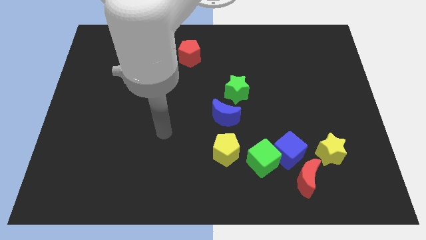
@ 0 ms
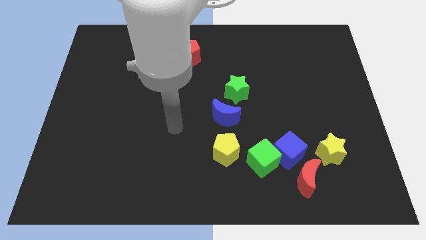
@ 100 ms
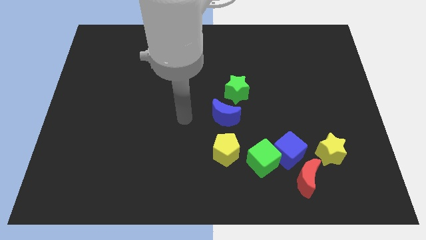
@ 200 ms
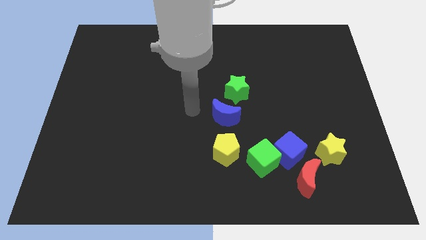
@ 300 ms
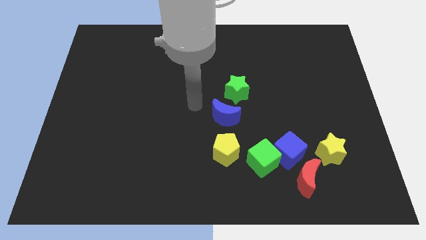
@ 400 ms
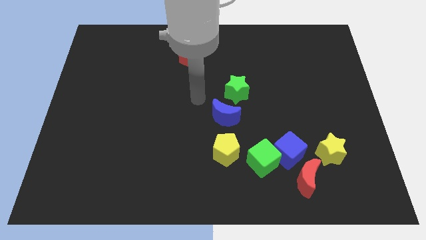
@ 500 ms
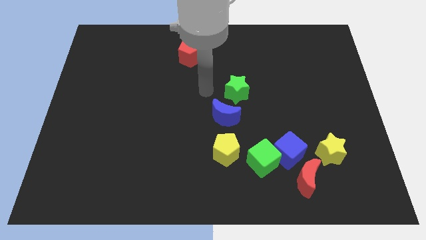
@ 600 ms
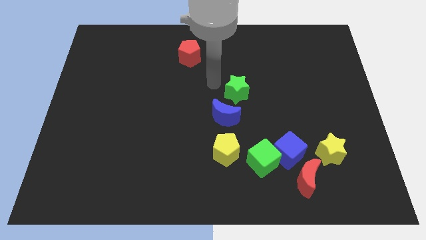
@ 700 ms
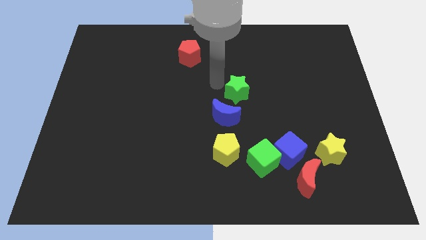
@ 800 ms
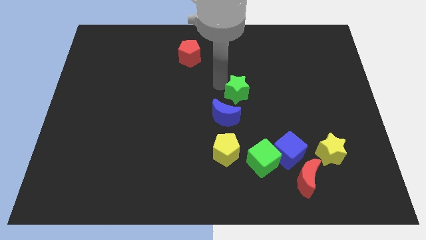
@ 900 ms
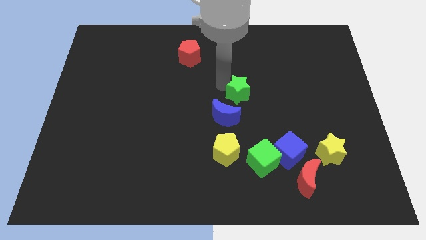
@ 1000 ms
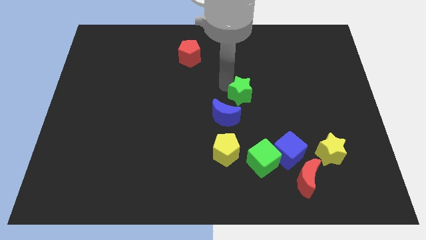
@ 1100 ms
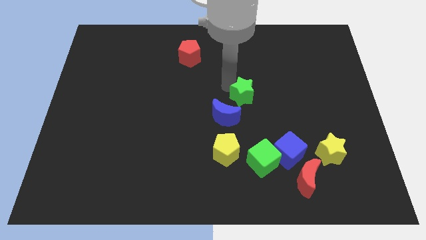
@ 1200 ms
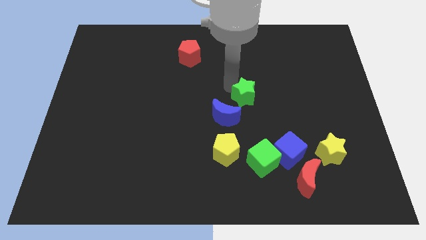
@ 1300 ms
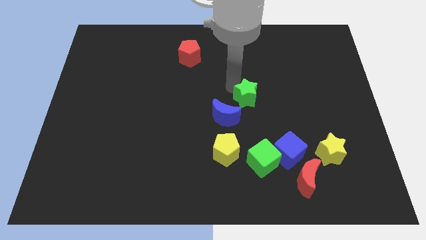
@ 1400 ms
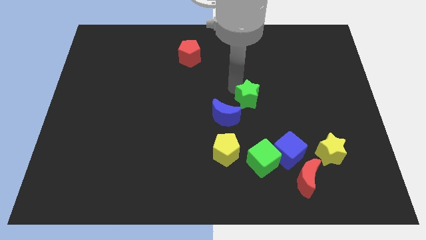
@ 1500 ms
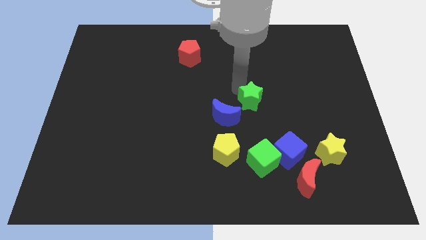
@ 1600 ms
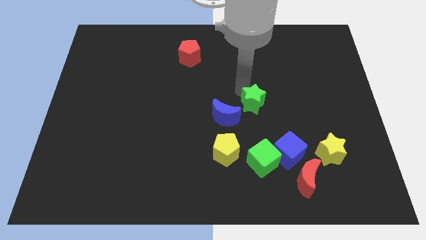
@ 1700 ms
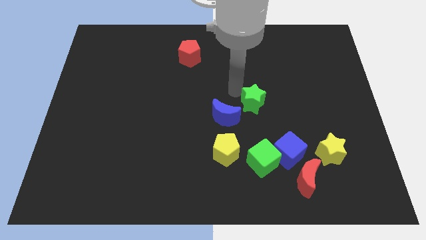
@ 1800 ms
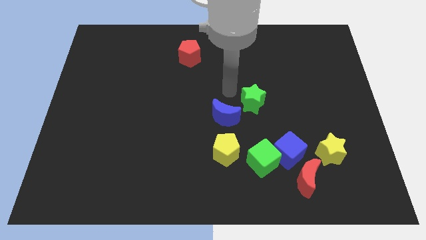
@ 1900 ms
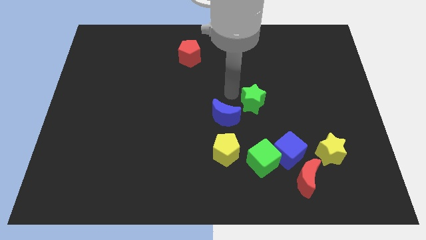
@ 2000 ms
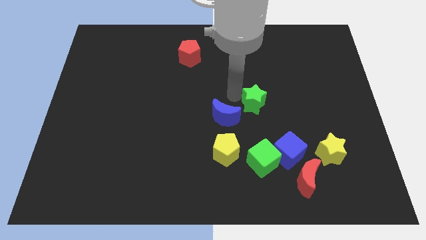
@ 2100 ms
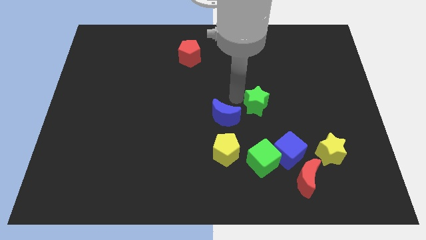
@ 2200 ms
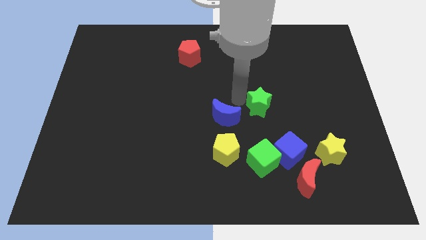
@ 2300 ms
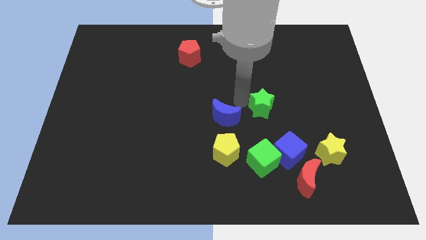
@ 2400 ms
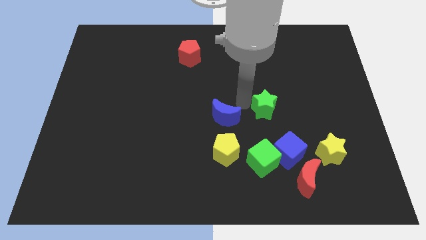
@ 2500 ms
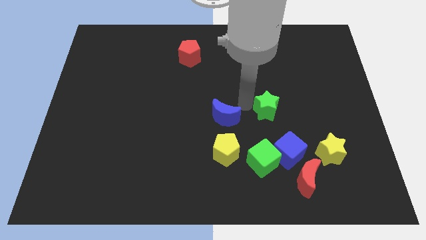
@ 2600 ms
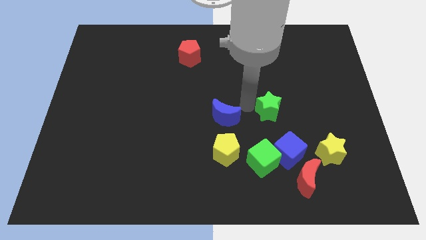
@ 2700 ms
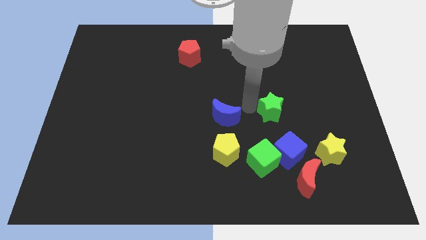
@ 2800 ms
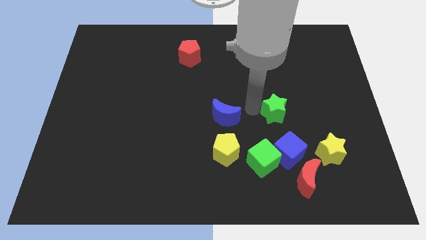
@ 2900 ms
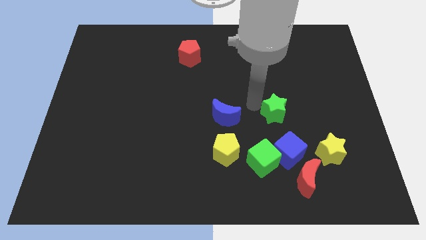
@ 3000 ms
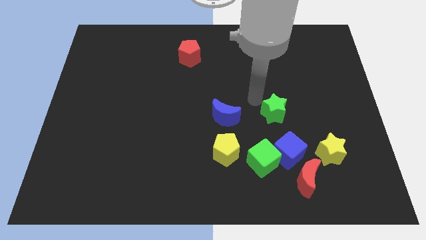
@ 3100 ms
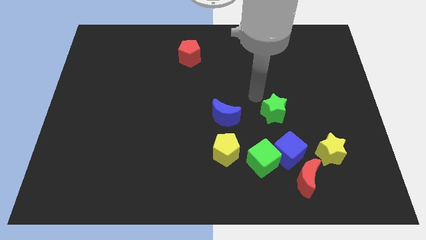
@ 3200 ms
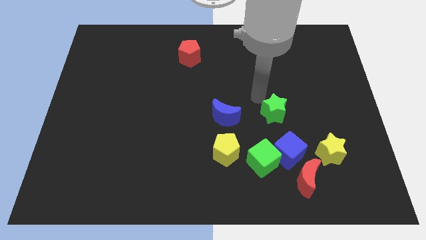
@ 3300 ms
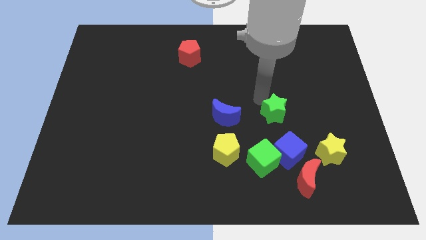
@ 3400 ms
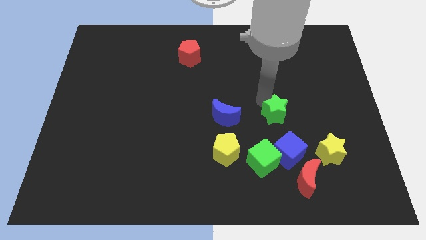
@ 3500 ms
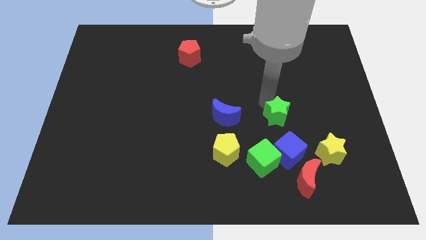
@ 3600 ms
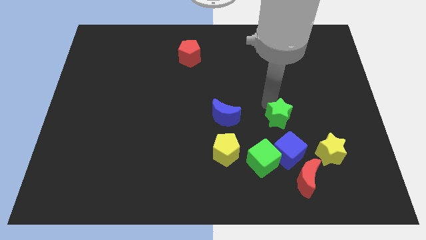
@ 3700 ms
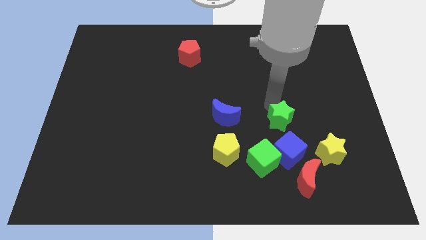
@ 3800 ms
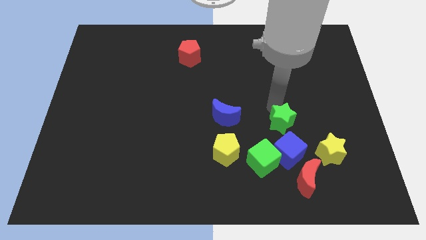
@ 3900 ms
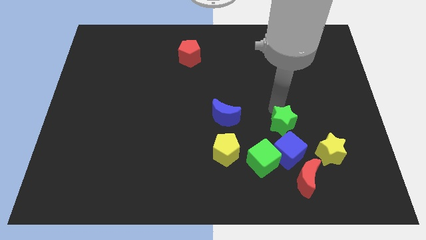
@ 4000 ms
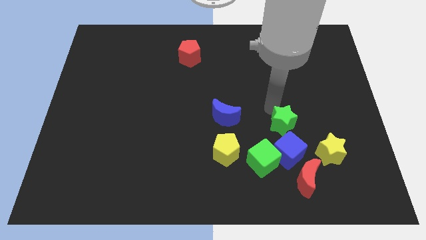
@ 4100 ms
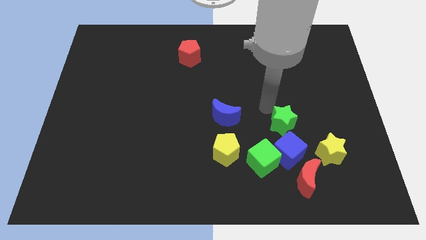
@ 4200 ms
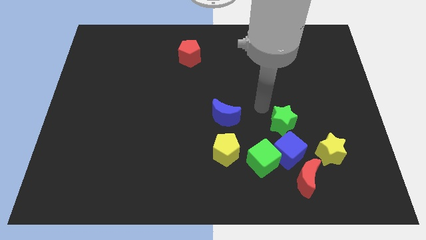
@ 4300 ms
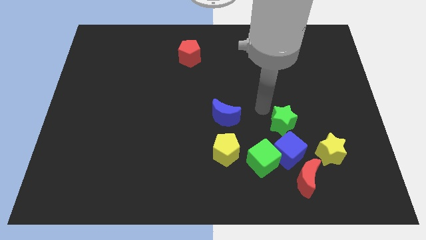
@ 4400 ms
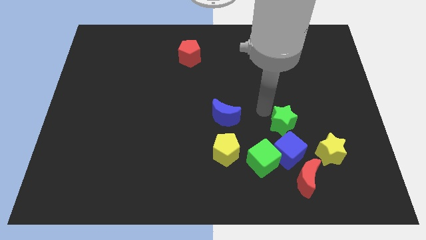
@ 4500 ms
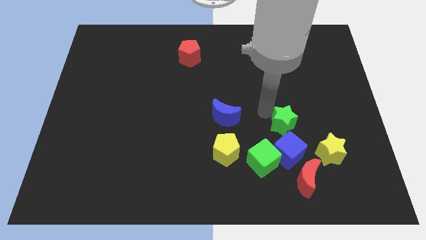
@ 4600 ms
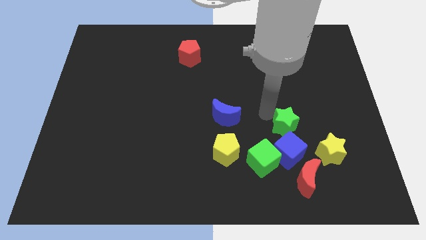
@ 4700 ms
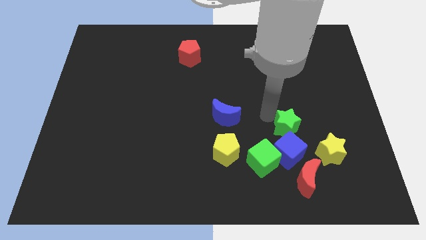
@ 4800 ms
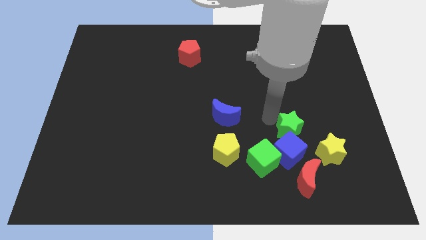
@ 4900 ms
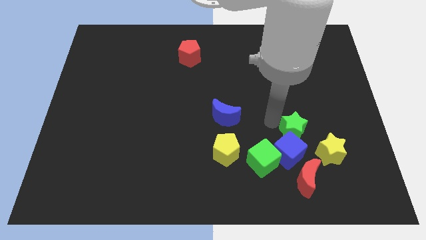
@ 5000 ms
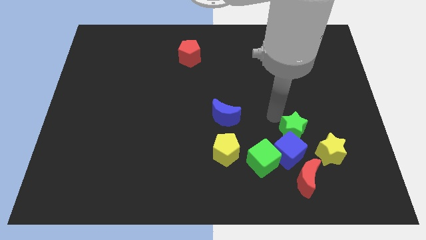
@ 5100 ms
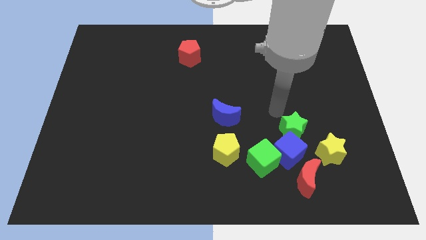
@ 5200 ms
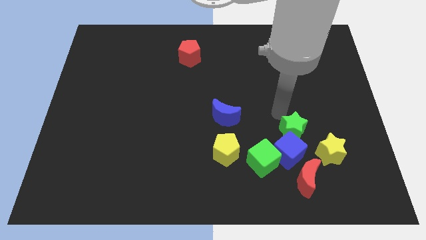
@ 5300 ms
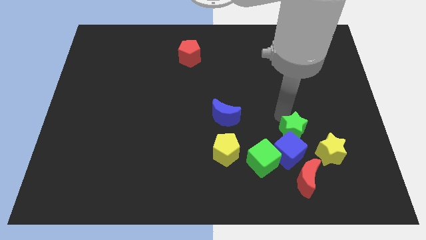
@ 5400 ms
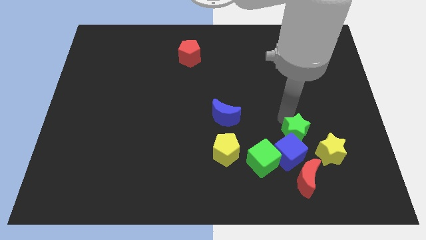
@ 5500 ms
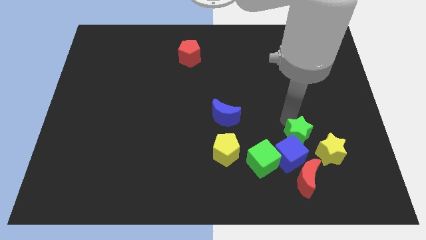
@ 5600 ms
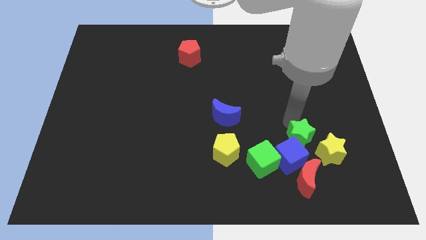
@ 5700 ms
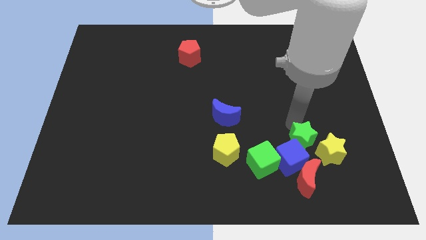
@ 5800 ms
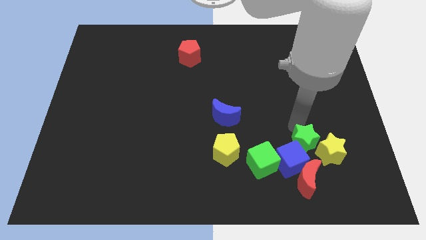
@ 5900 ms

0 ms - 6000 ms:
slide the green star right of the green cube

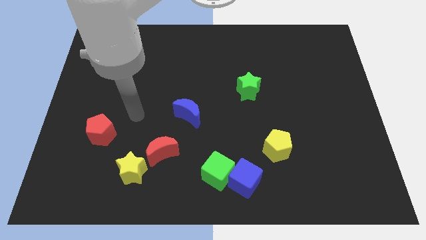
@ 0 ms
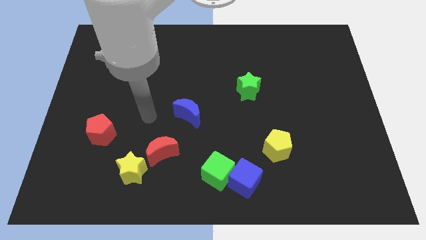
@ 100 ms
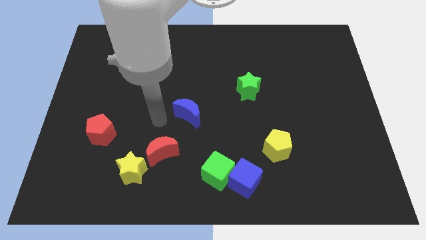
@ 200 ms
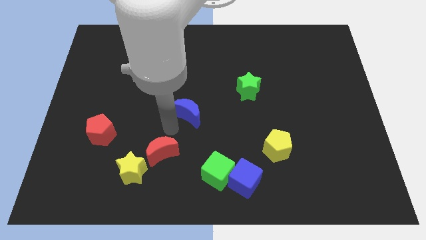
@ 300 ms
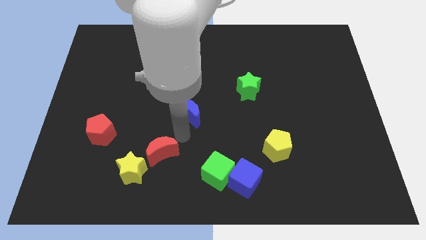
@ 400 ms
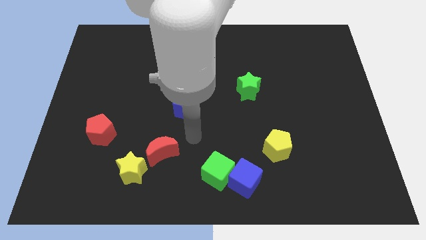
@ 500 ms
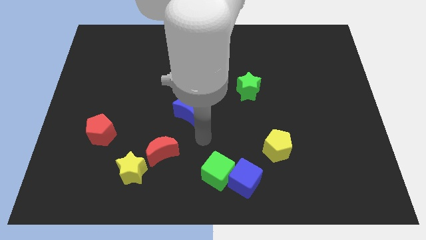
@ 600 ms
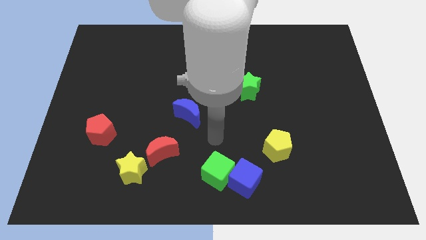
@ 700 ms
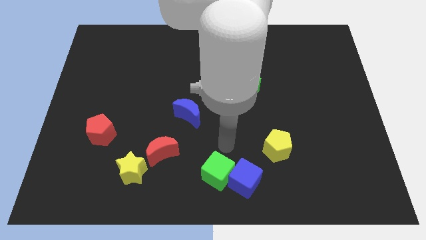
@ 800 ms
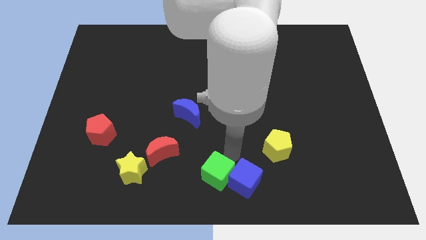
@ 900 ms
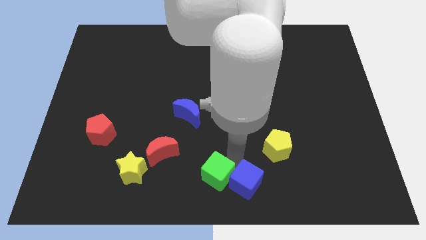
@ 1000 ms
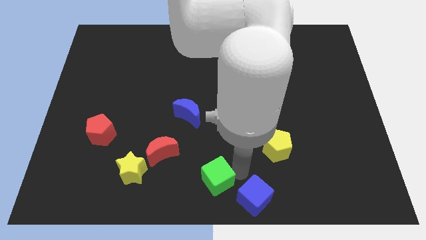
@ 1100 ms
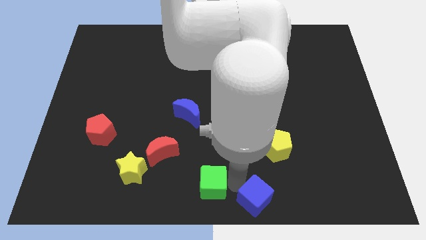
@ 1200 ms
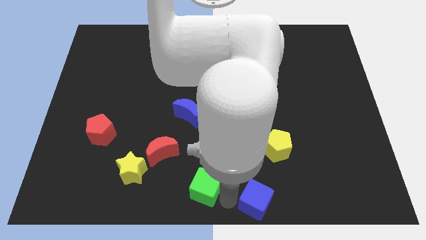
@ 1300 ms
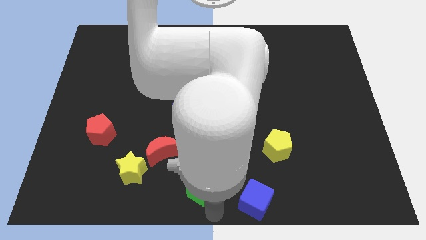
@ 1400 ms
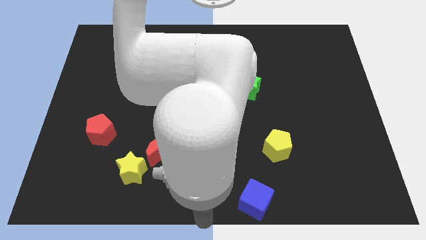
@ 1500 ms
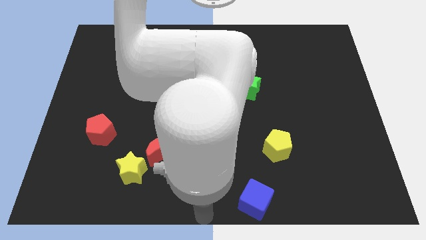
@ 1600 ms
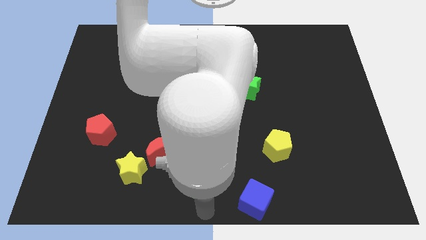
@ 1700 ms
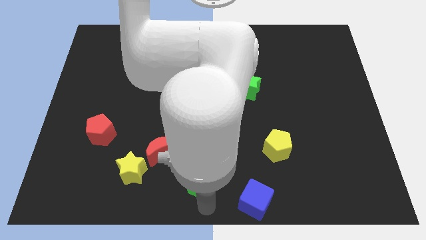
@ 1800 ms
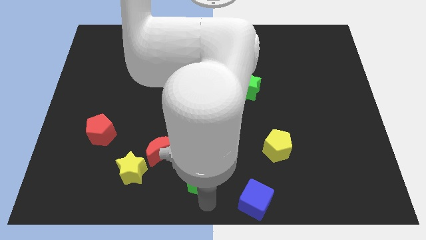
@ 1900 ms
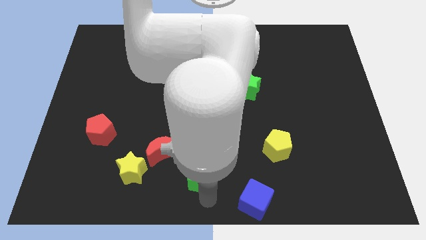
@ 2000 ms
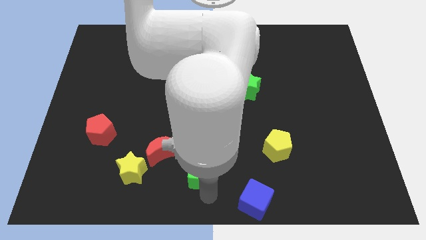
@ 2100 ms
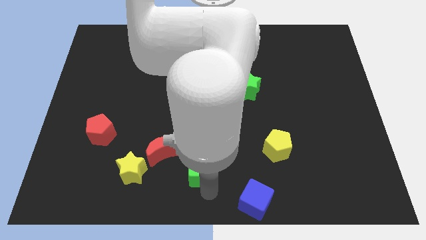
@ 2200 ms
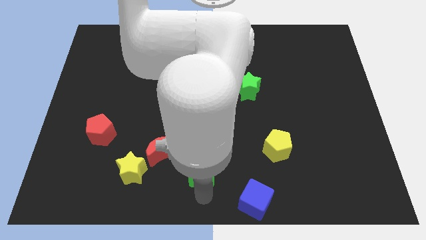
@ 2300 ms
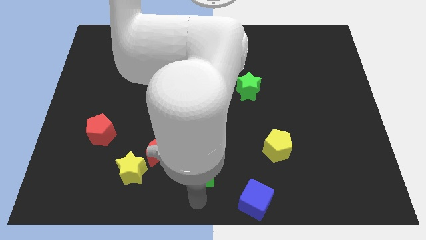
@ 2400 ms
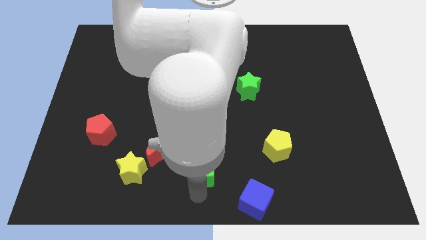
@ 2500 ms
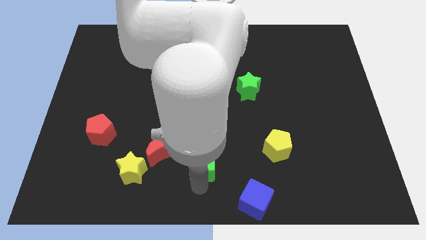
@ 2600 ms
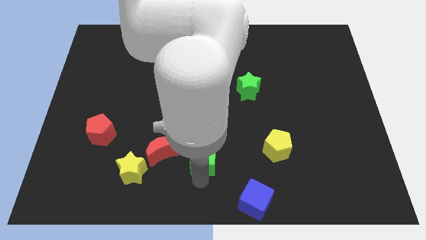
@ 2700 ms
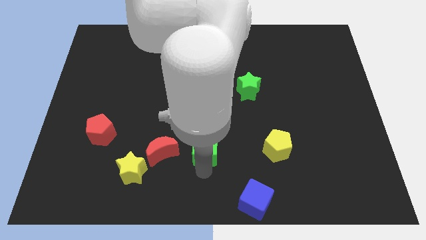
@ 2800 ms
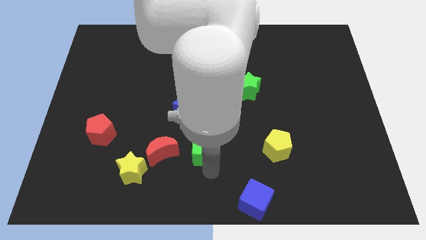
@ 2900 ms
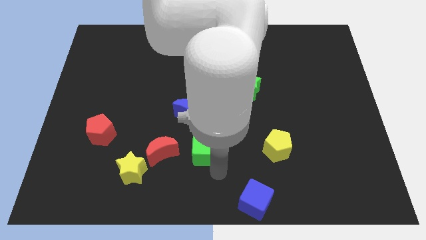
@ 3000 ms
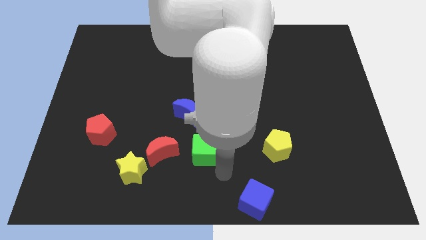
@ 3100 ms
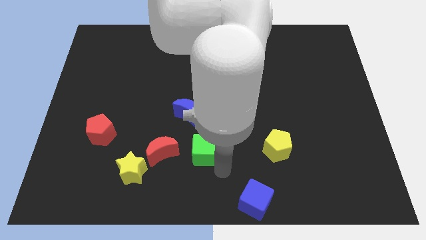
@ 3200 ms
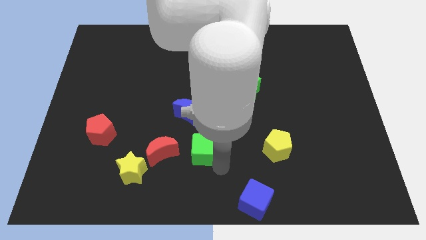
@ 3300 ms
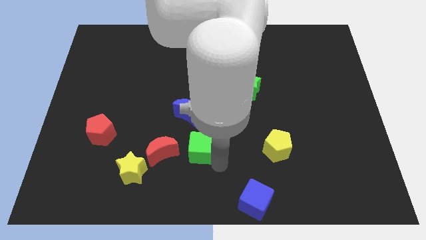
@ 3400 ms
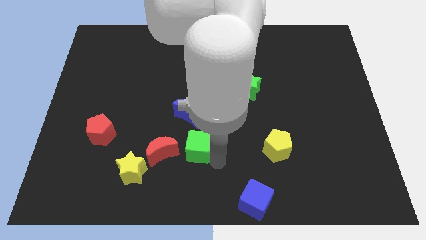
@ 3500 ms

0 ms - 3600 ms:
move the green cube to the top right of the red moon
